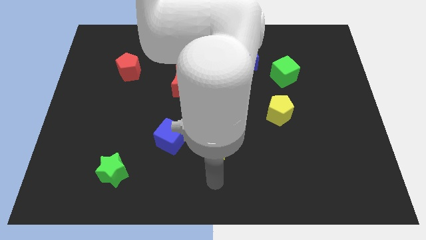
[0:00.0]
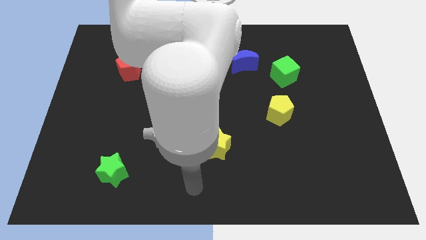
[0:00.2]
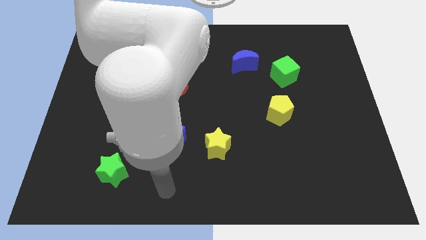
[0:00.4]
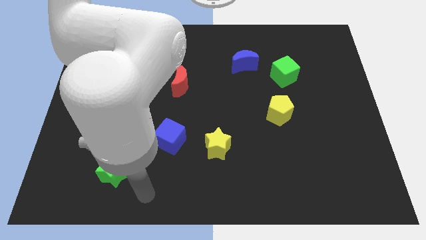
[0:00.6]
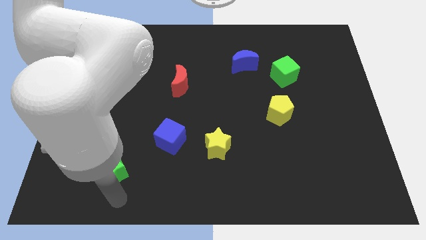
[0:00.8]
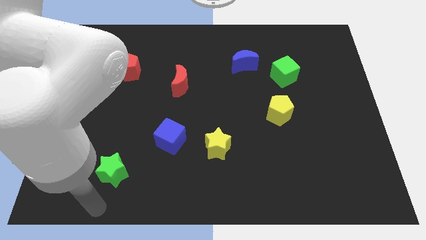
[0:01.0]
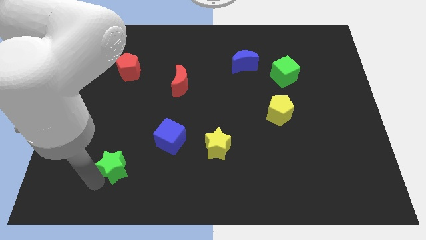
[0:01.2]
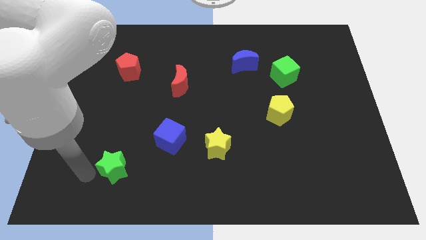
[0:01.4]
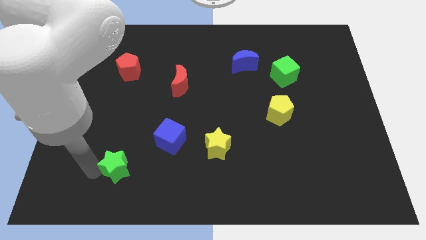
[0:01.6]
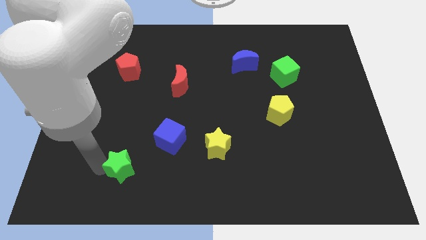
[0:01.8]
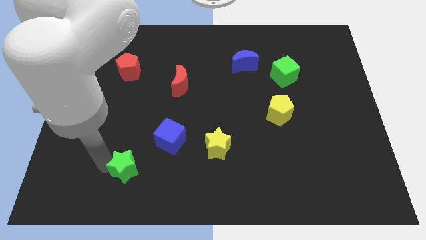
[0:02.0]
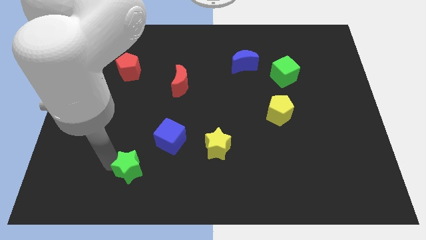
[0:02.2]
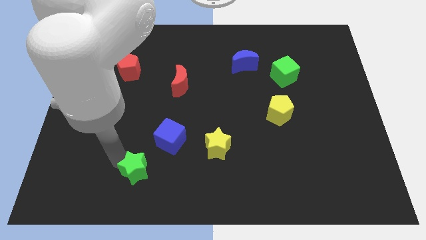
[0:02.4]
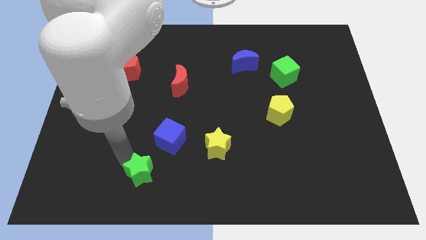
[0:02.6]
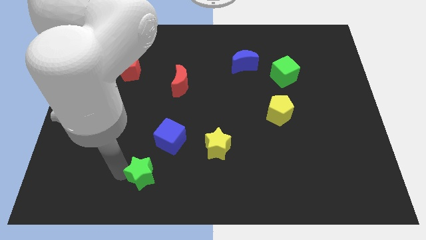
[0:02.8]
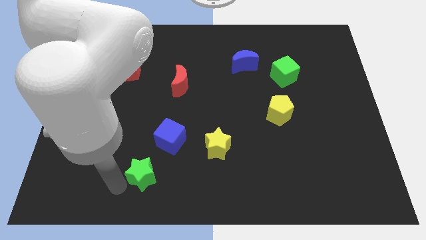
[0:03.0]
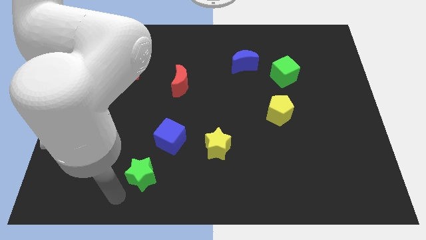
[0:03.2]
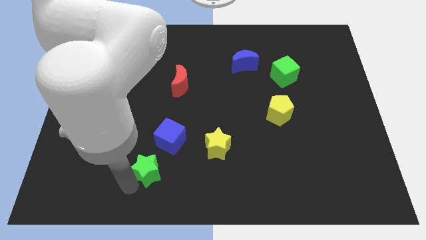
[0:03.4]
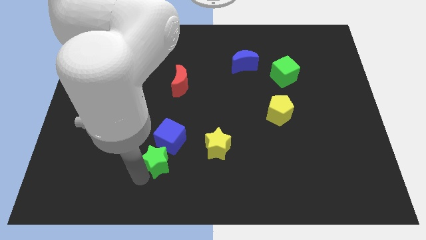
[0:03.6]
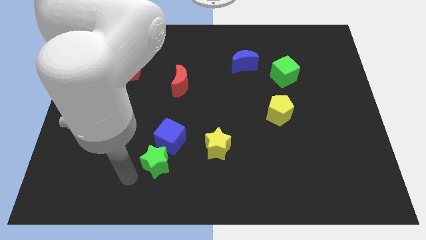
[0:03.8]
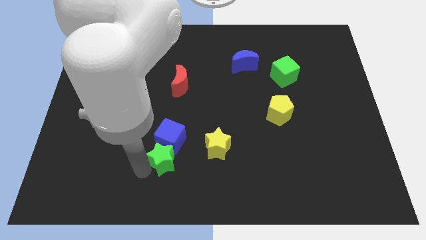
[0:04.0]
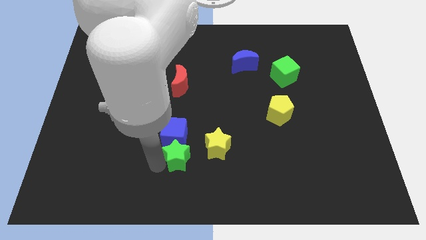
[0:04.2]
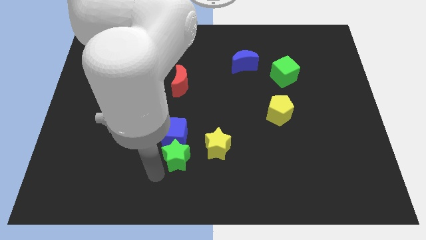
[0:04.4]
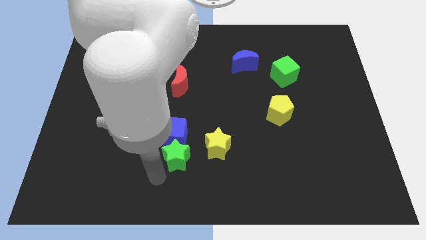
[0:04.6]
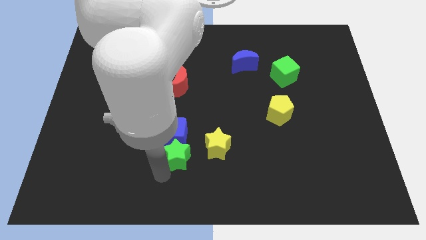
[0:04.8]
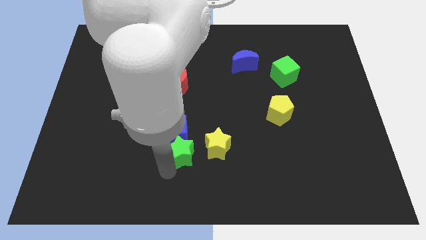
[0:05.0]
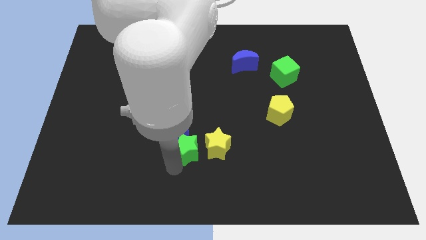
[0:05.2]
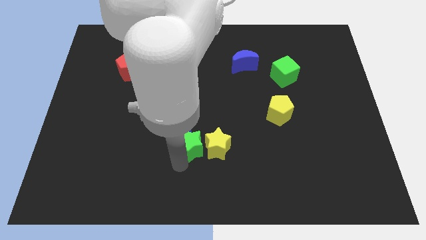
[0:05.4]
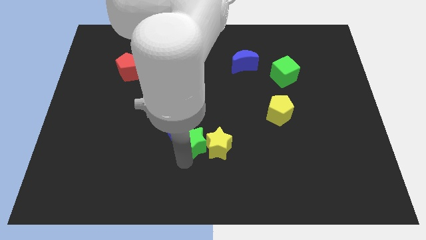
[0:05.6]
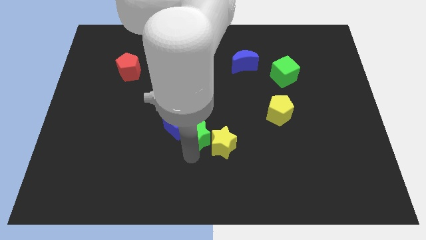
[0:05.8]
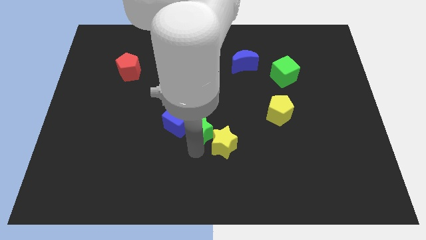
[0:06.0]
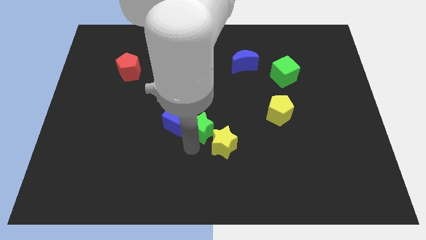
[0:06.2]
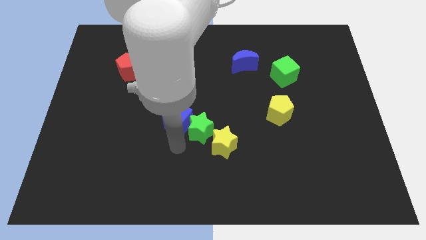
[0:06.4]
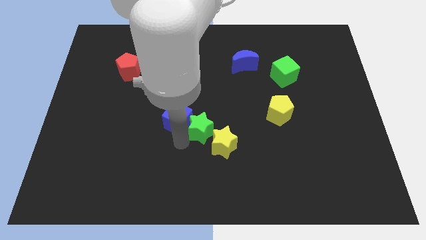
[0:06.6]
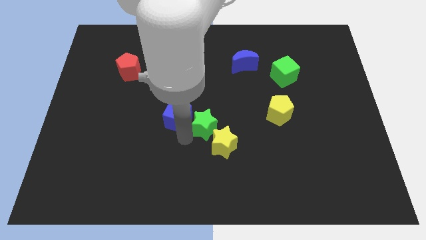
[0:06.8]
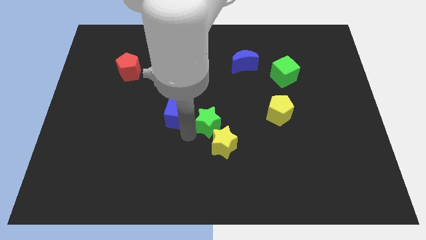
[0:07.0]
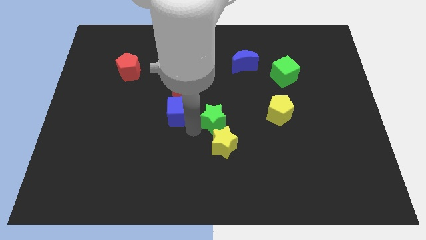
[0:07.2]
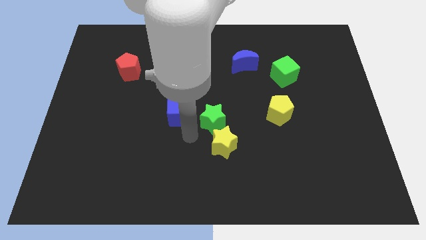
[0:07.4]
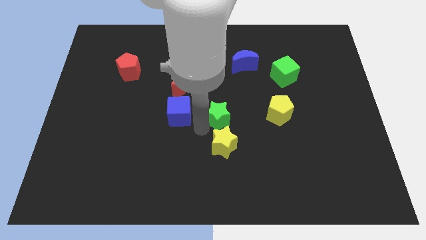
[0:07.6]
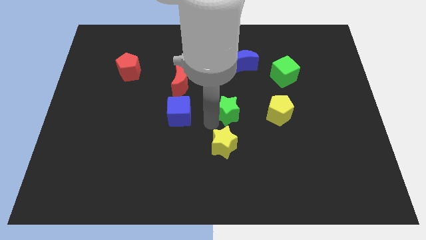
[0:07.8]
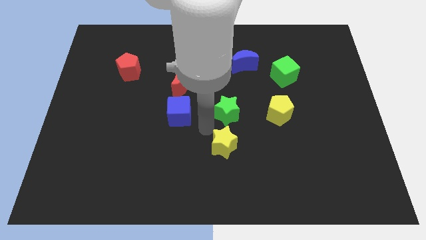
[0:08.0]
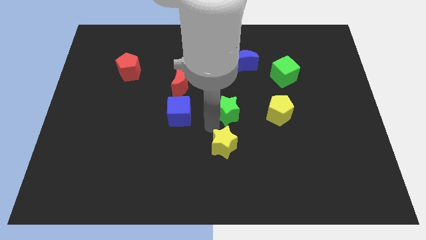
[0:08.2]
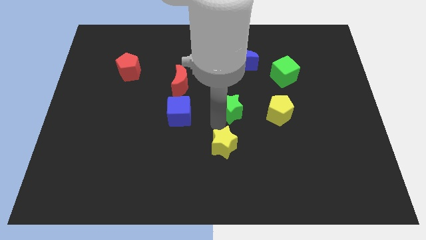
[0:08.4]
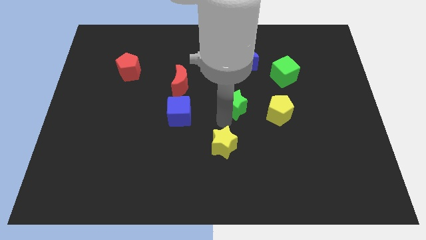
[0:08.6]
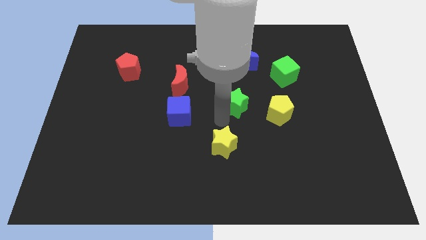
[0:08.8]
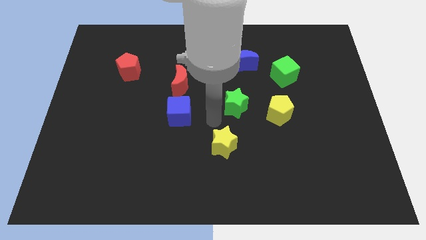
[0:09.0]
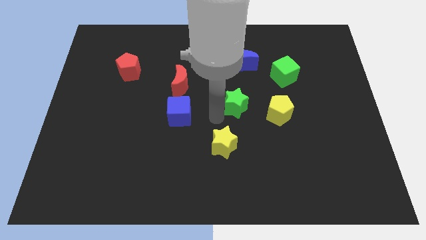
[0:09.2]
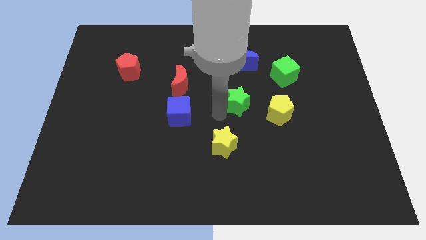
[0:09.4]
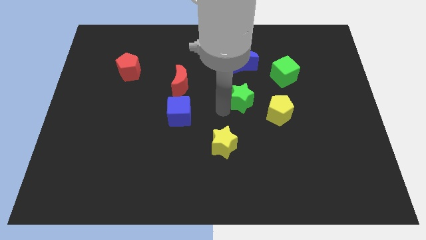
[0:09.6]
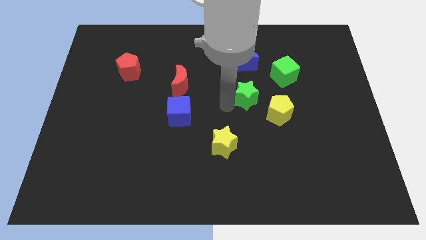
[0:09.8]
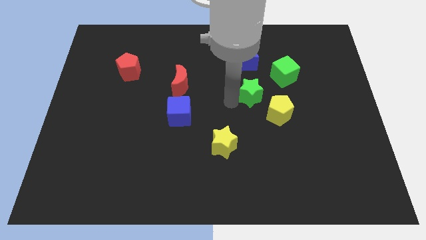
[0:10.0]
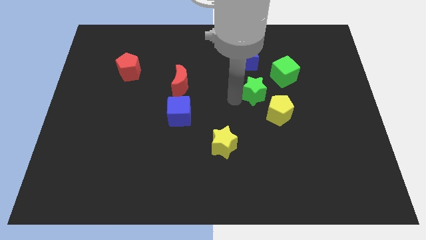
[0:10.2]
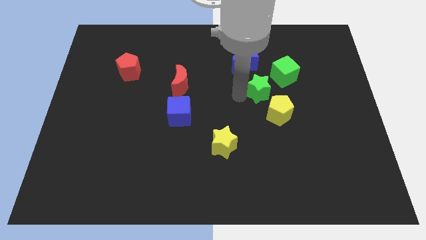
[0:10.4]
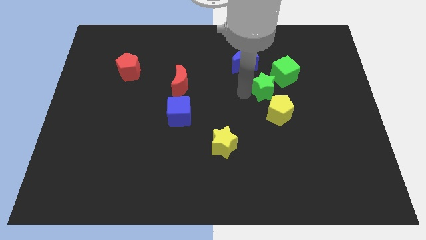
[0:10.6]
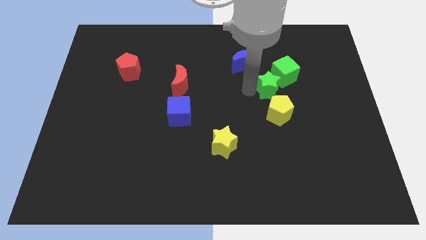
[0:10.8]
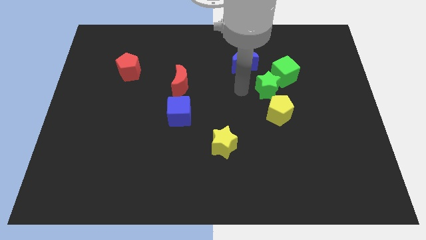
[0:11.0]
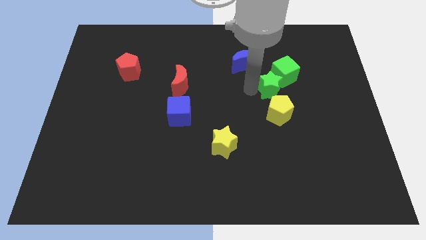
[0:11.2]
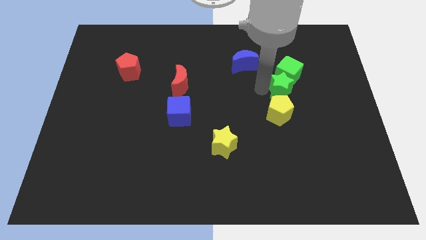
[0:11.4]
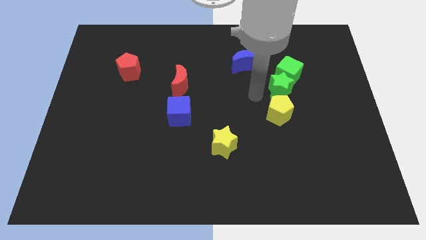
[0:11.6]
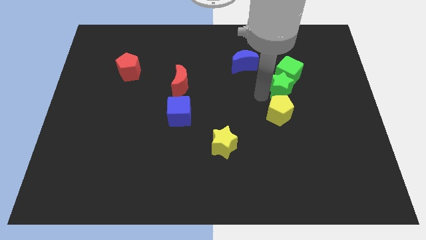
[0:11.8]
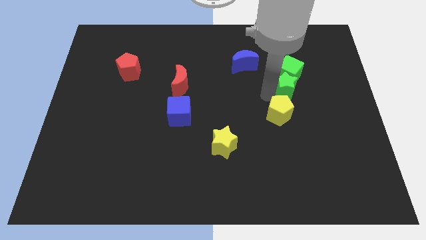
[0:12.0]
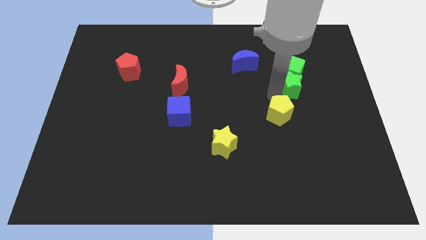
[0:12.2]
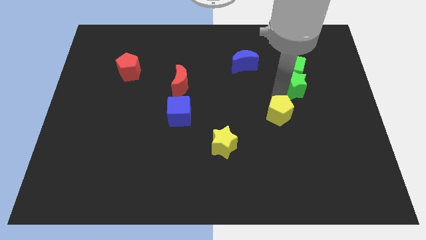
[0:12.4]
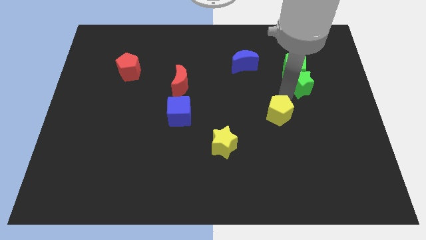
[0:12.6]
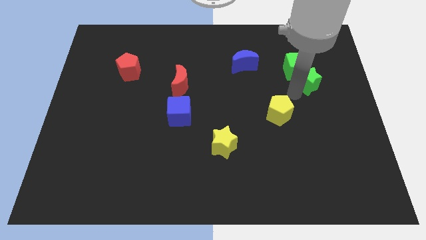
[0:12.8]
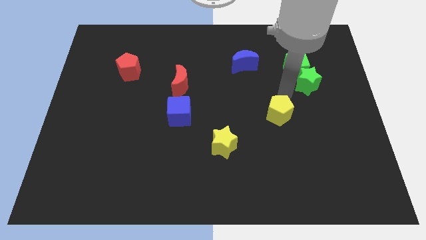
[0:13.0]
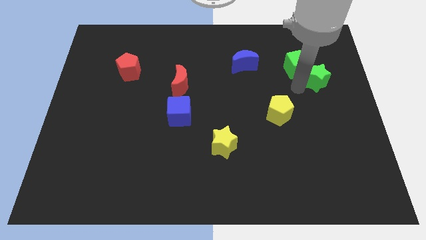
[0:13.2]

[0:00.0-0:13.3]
push the green star just right of the green cube

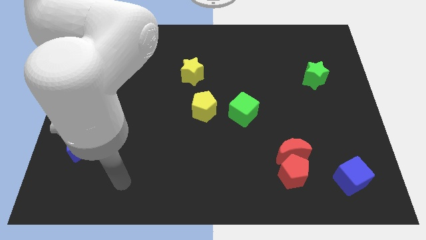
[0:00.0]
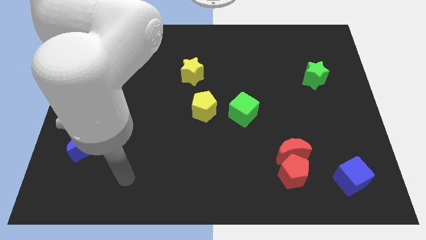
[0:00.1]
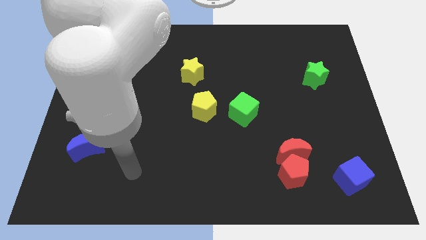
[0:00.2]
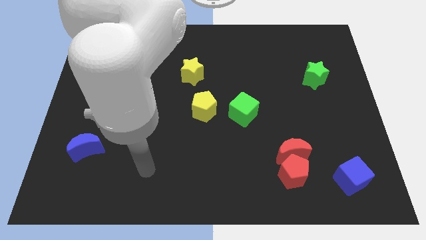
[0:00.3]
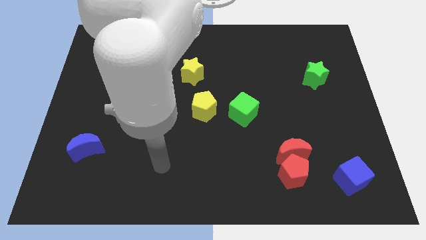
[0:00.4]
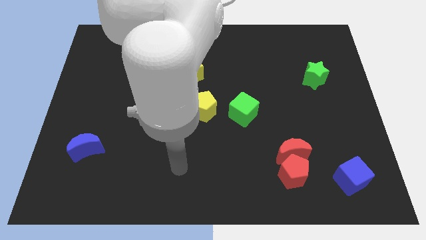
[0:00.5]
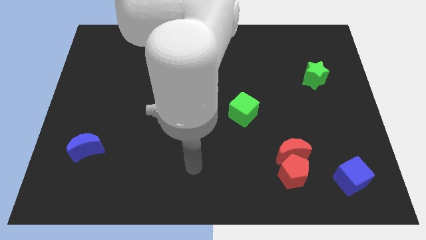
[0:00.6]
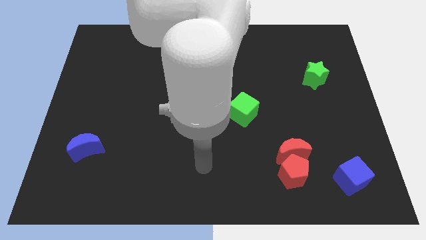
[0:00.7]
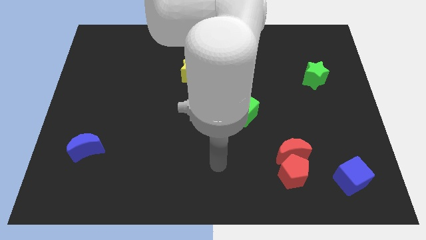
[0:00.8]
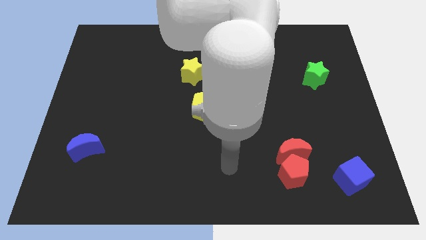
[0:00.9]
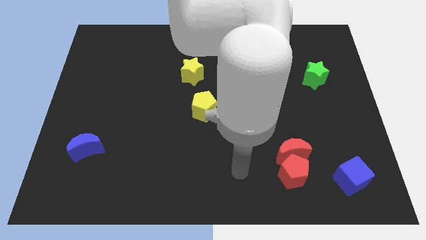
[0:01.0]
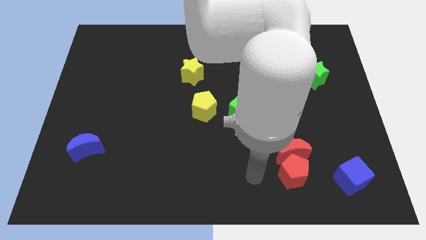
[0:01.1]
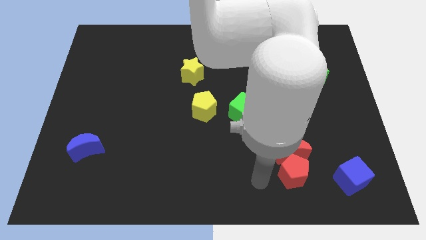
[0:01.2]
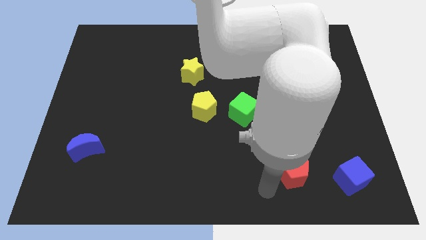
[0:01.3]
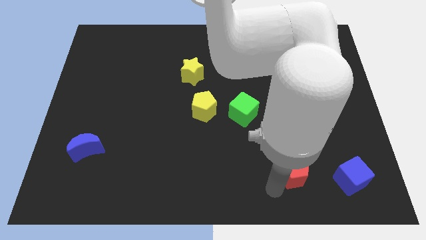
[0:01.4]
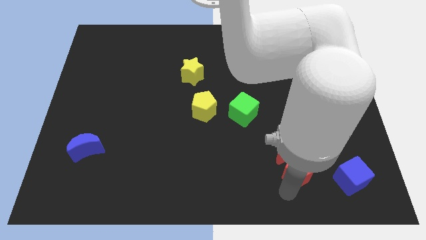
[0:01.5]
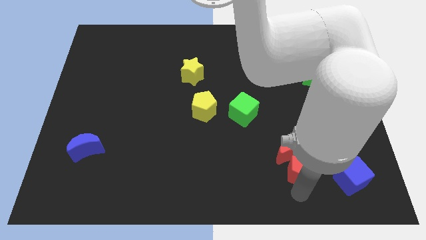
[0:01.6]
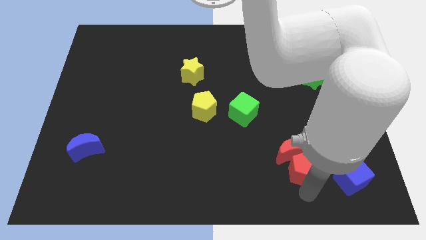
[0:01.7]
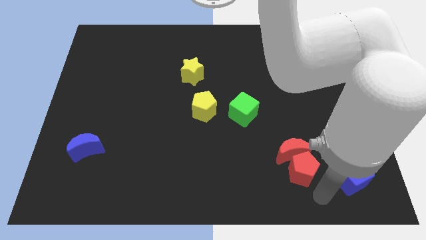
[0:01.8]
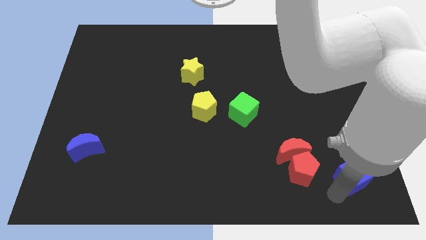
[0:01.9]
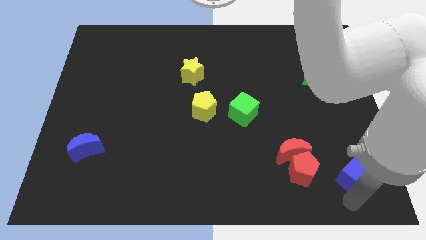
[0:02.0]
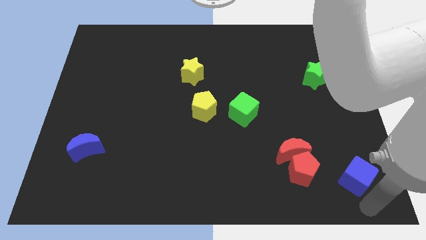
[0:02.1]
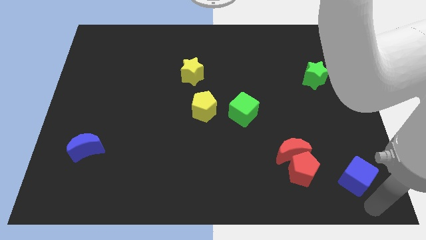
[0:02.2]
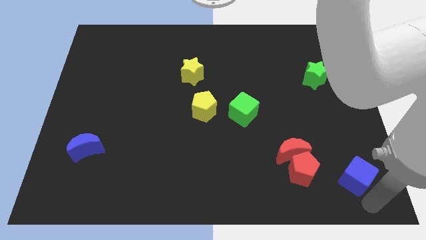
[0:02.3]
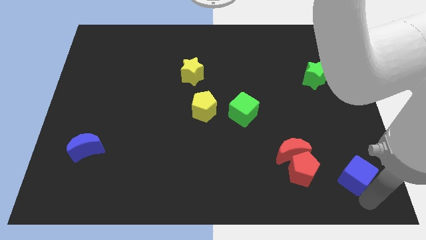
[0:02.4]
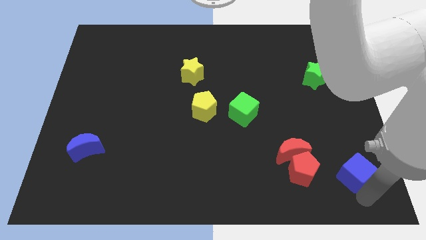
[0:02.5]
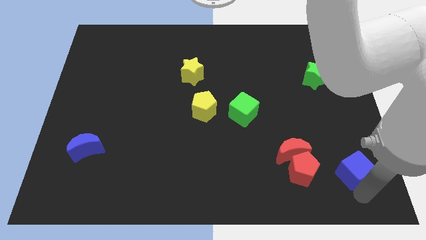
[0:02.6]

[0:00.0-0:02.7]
move the blue cube right of the red moon
